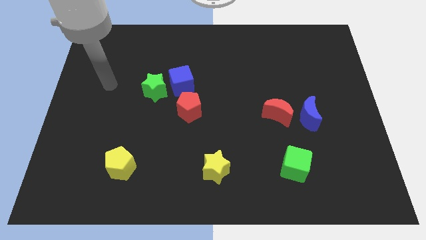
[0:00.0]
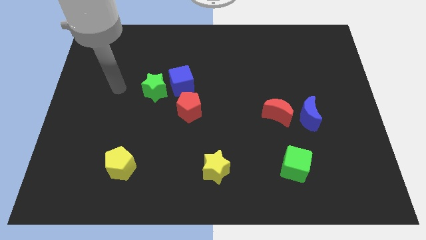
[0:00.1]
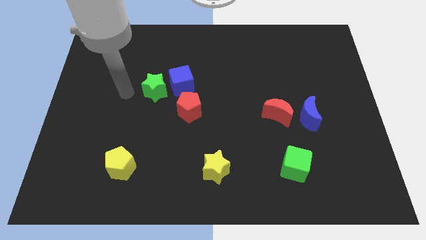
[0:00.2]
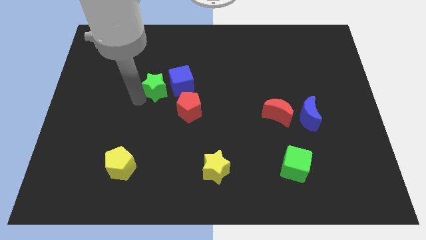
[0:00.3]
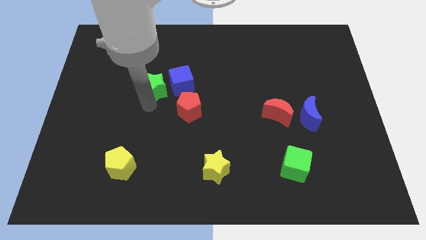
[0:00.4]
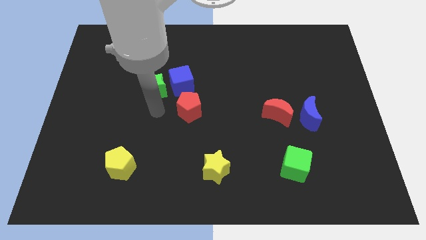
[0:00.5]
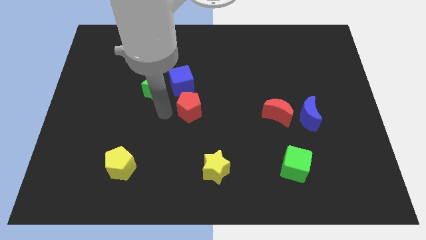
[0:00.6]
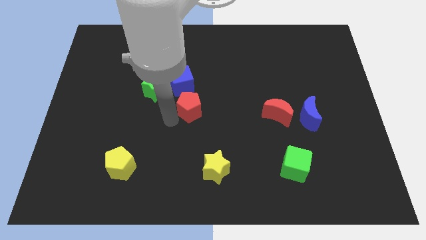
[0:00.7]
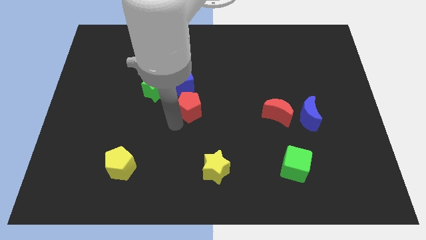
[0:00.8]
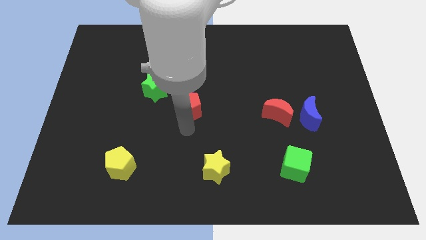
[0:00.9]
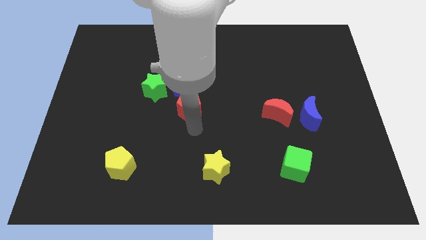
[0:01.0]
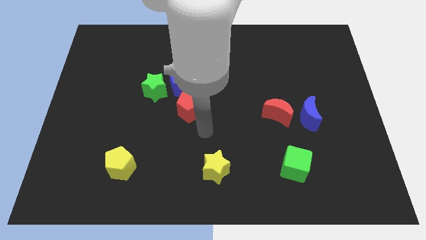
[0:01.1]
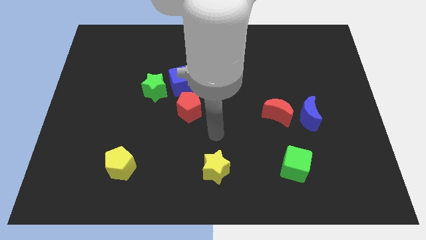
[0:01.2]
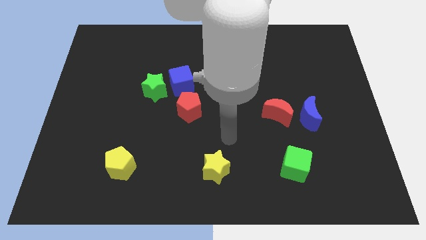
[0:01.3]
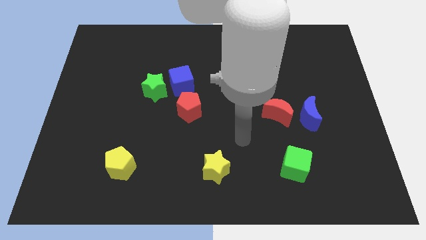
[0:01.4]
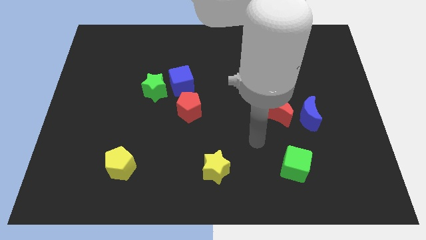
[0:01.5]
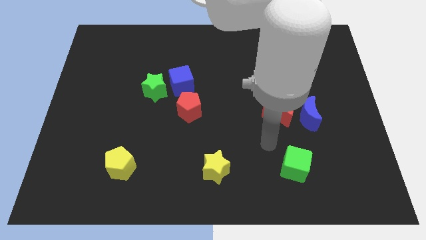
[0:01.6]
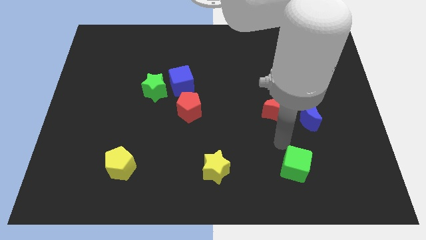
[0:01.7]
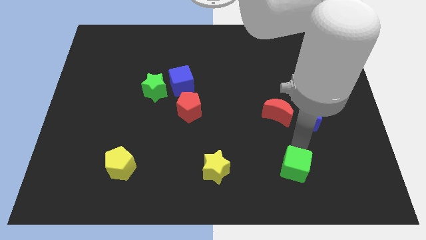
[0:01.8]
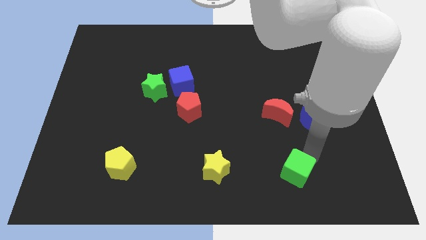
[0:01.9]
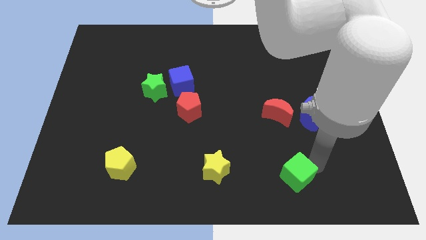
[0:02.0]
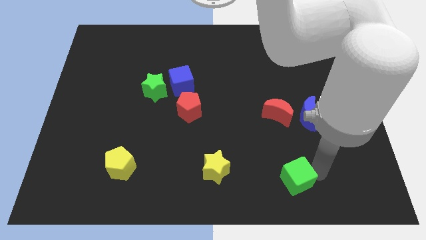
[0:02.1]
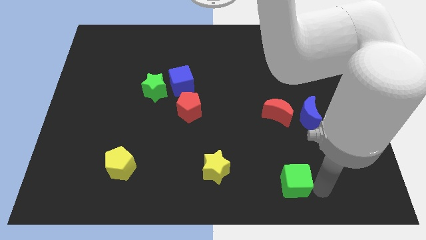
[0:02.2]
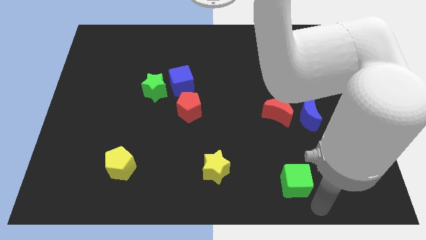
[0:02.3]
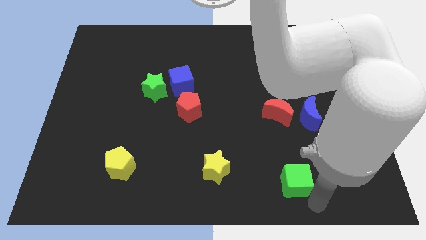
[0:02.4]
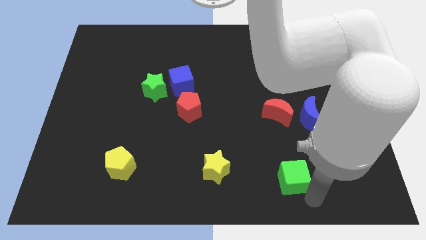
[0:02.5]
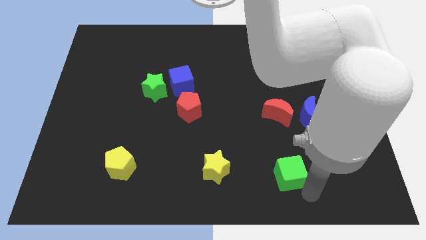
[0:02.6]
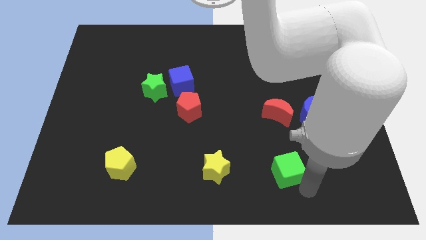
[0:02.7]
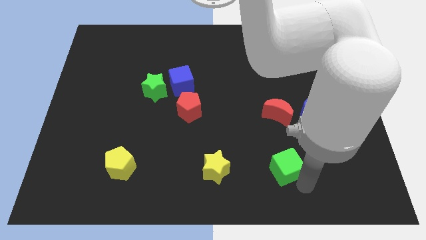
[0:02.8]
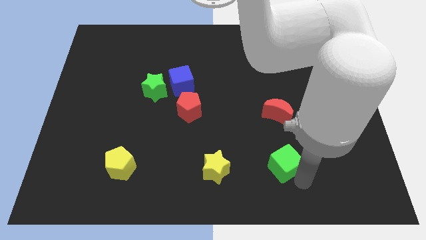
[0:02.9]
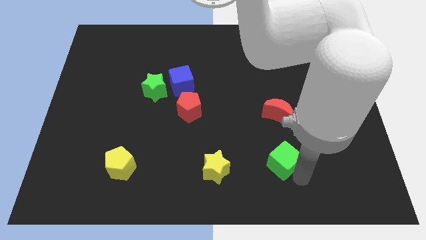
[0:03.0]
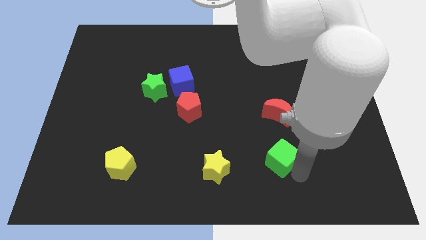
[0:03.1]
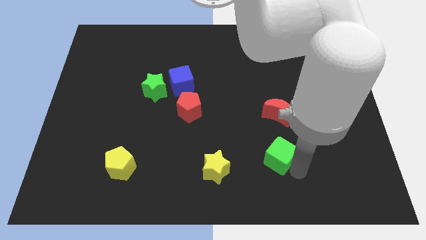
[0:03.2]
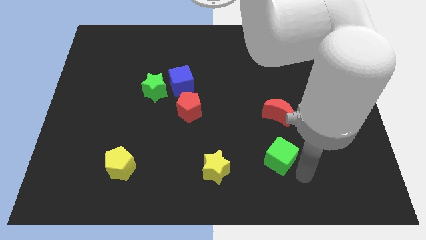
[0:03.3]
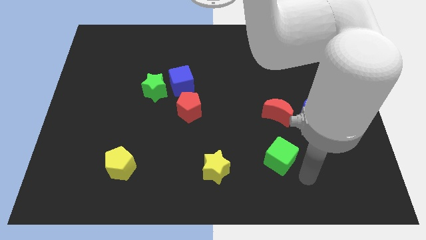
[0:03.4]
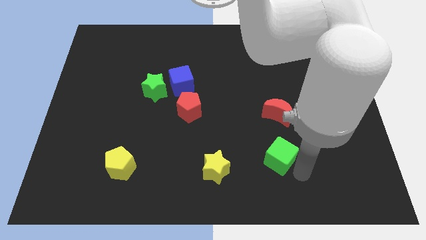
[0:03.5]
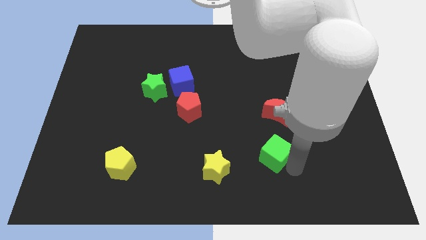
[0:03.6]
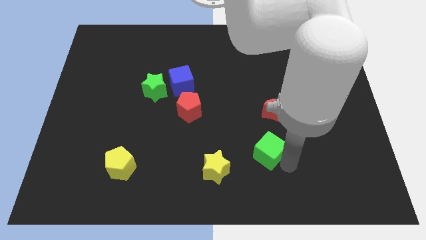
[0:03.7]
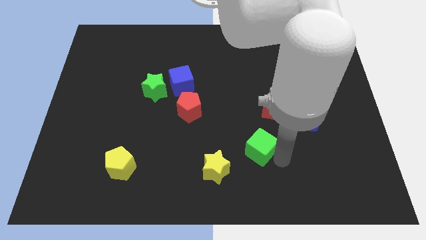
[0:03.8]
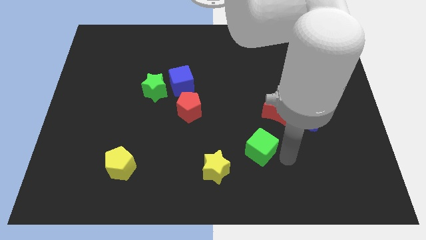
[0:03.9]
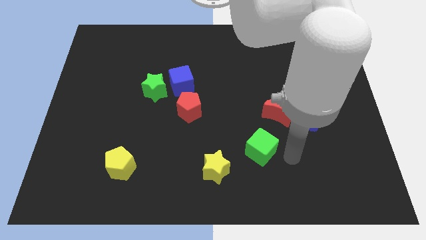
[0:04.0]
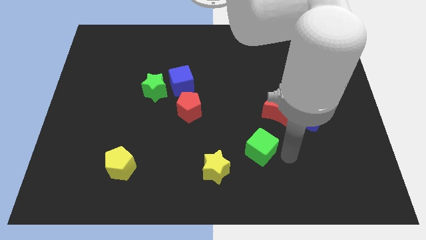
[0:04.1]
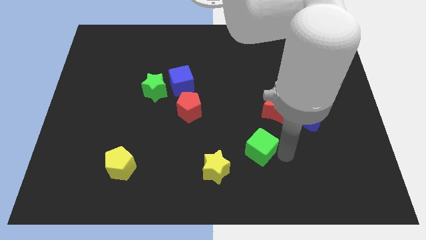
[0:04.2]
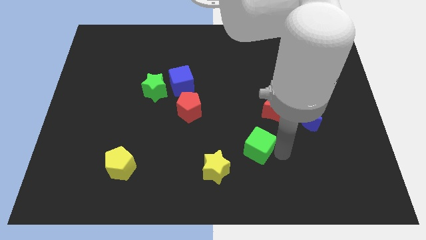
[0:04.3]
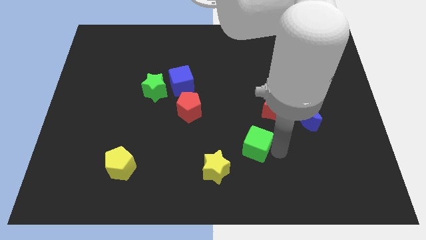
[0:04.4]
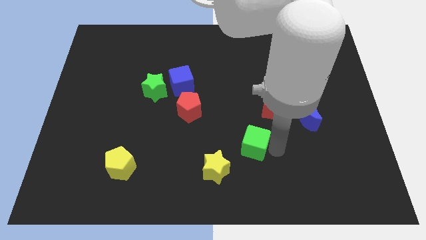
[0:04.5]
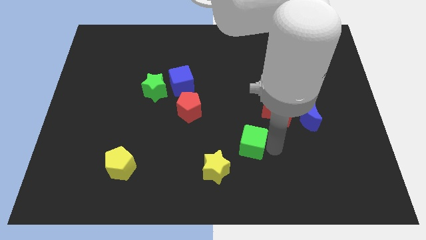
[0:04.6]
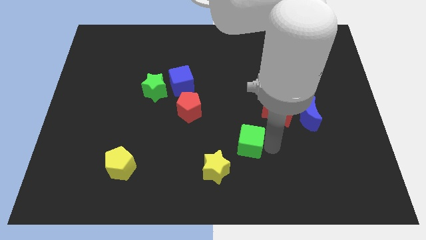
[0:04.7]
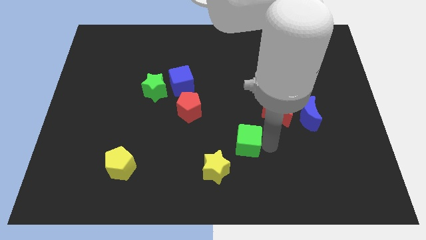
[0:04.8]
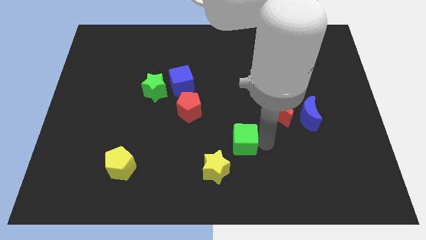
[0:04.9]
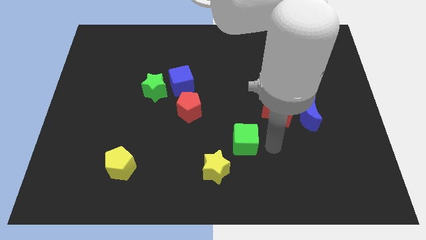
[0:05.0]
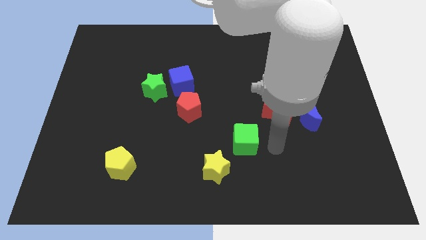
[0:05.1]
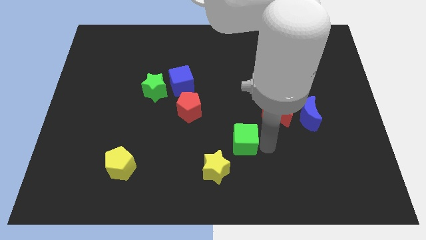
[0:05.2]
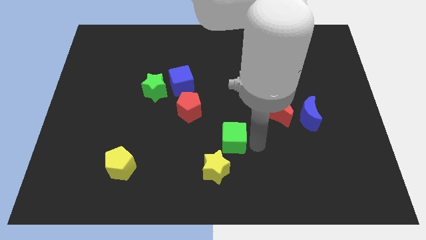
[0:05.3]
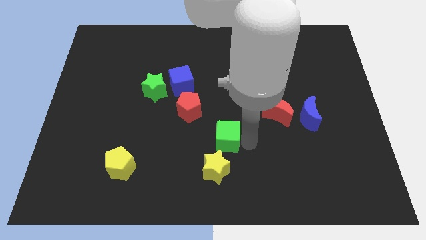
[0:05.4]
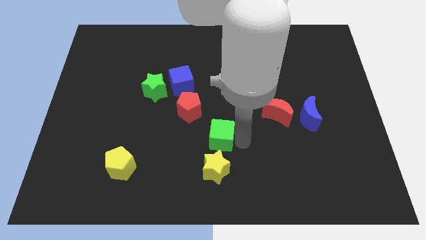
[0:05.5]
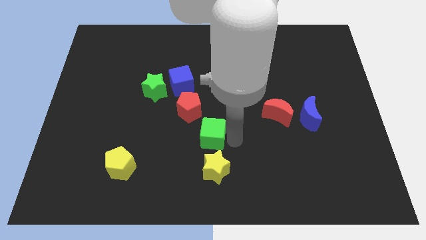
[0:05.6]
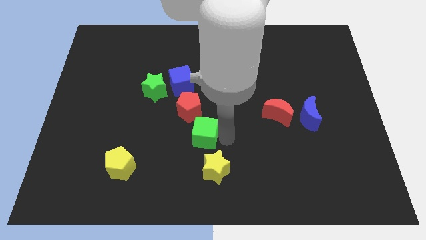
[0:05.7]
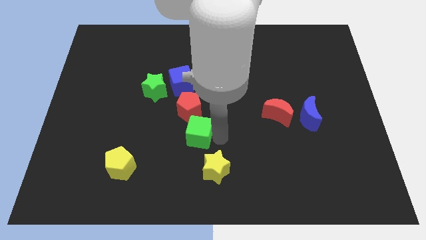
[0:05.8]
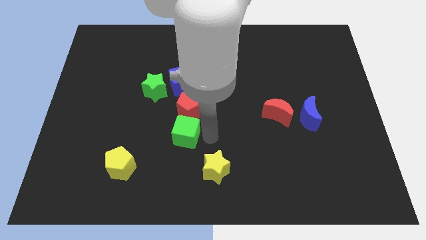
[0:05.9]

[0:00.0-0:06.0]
put the green cube to the bottom left of the red pentagon

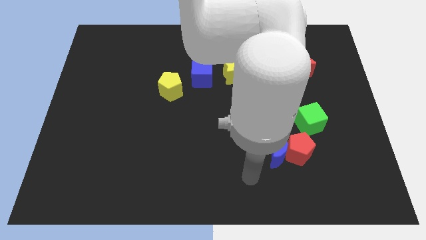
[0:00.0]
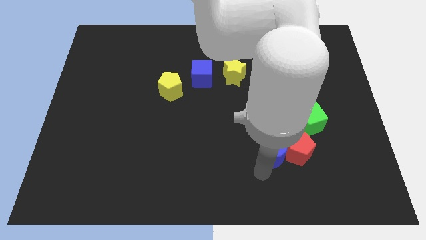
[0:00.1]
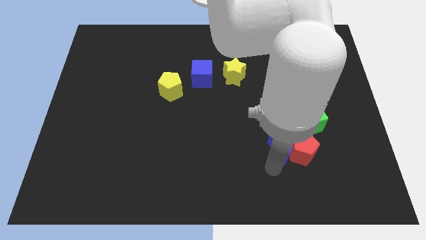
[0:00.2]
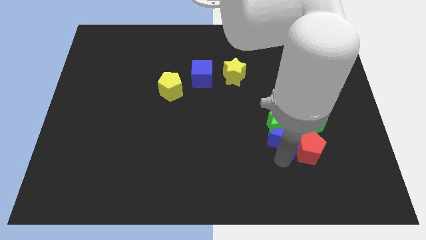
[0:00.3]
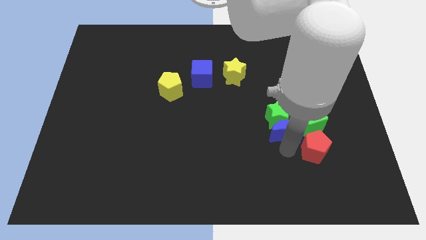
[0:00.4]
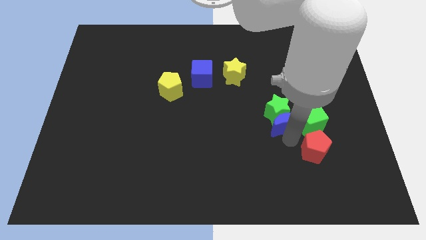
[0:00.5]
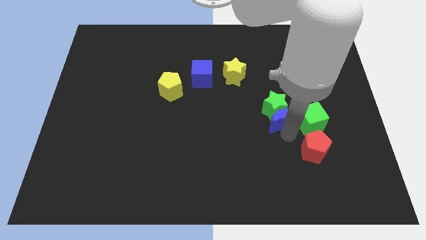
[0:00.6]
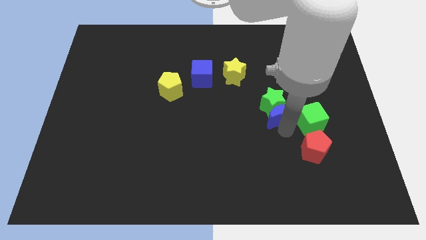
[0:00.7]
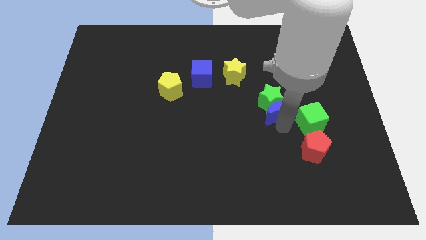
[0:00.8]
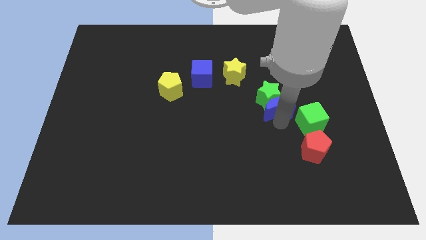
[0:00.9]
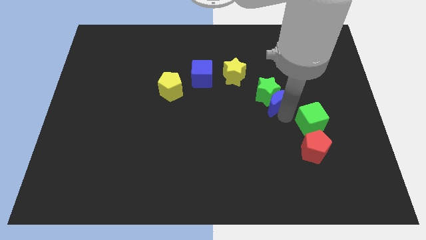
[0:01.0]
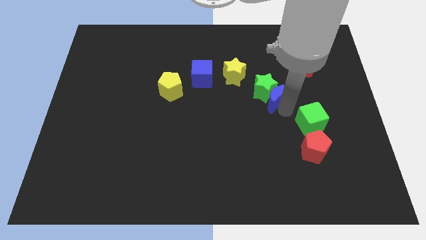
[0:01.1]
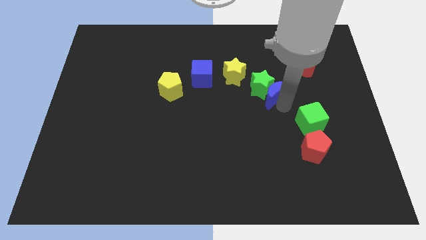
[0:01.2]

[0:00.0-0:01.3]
put the green star just right of the blue cube
